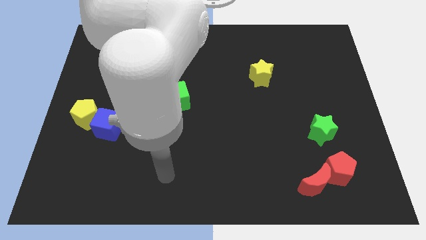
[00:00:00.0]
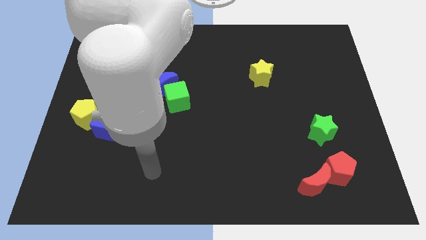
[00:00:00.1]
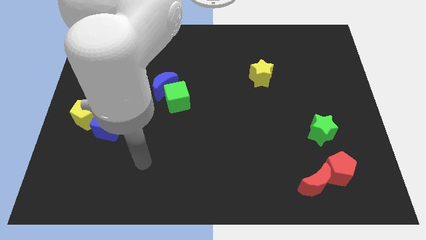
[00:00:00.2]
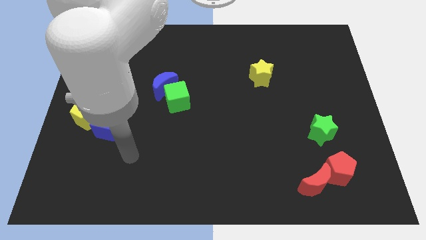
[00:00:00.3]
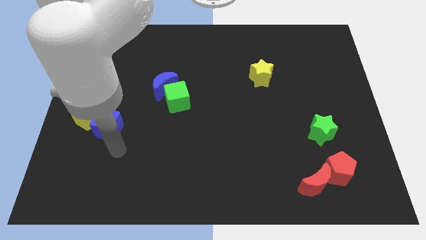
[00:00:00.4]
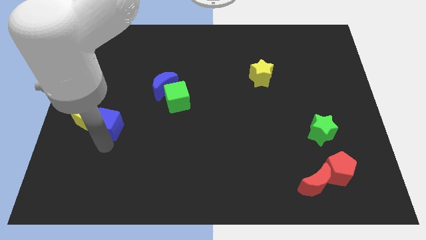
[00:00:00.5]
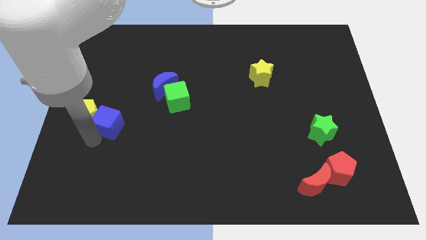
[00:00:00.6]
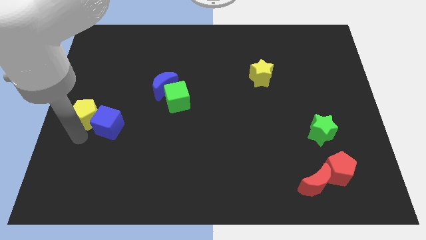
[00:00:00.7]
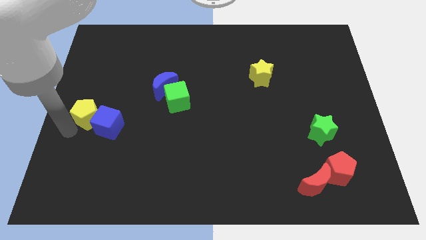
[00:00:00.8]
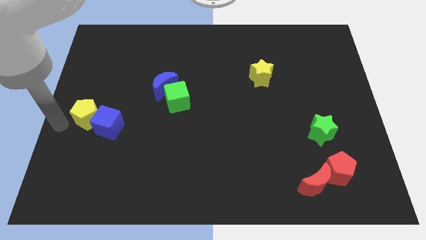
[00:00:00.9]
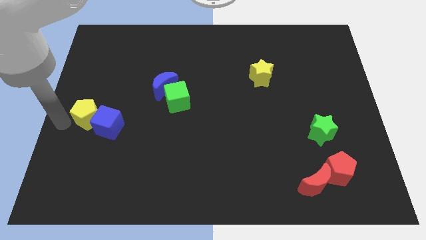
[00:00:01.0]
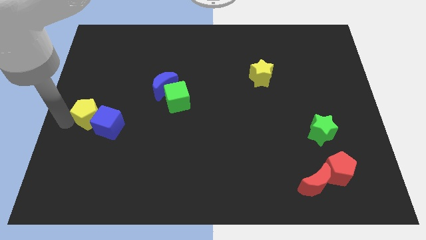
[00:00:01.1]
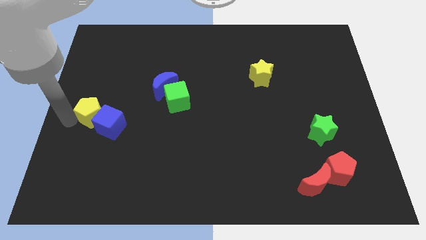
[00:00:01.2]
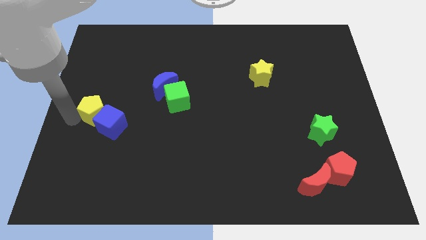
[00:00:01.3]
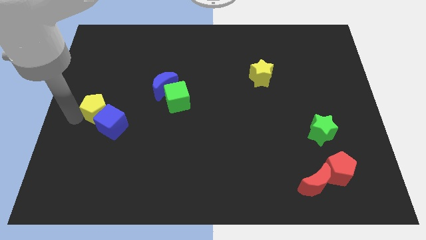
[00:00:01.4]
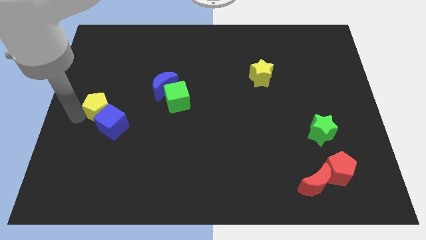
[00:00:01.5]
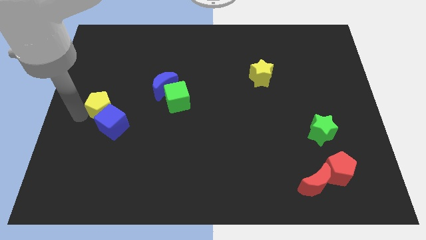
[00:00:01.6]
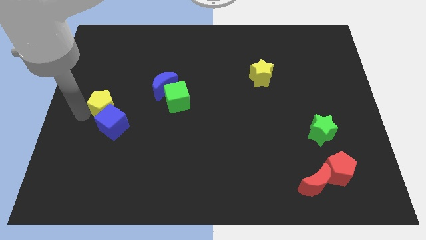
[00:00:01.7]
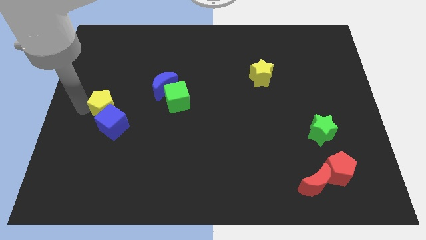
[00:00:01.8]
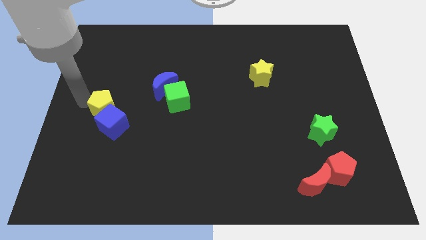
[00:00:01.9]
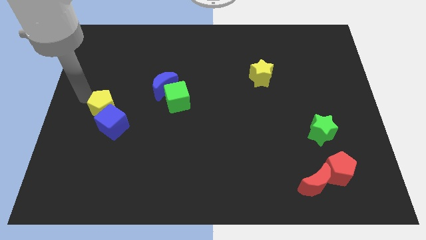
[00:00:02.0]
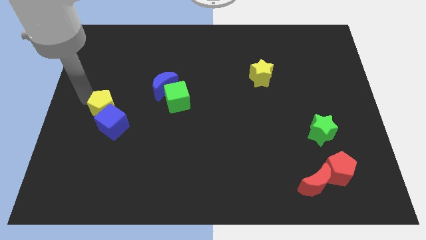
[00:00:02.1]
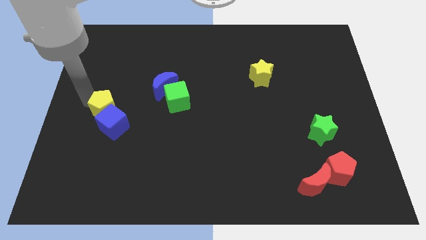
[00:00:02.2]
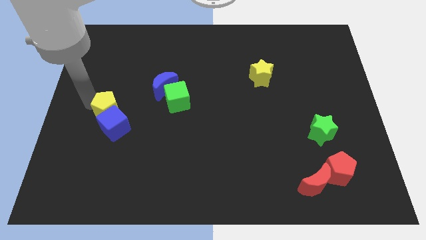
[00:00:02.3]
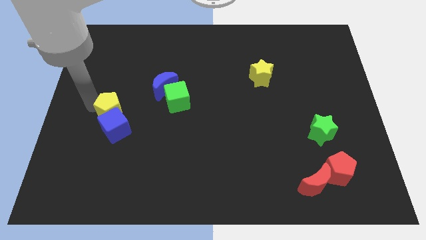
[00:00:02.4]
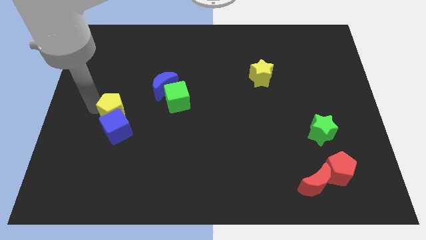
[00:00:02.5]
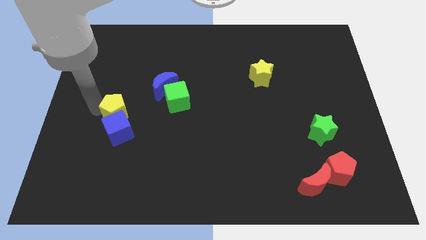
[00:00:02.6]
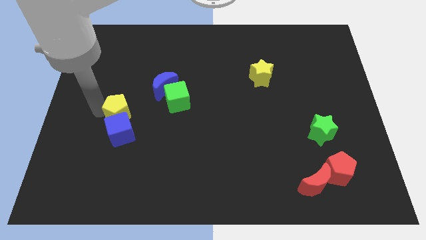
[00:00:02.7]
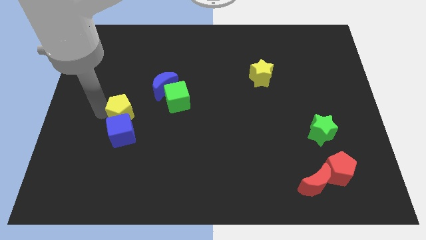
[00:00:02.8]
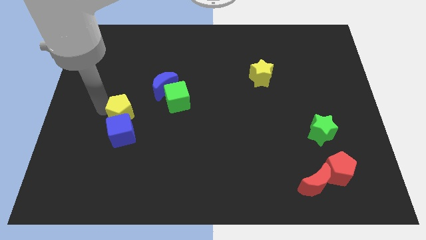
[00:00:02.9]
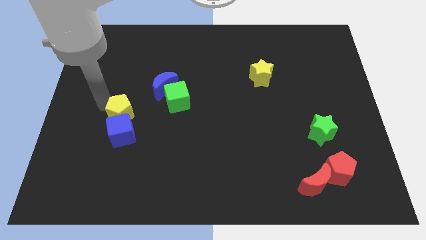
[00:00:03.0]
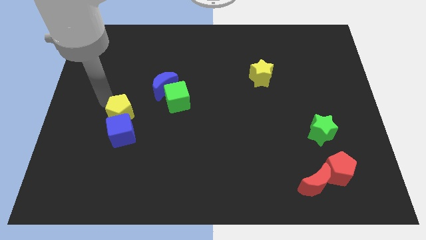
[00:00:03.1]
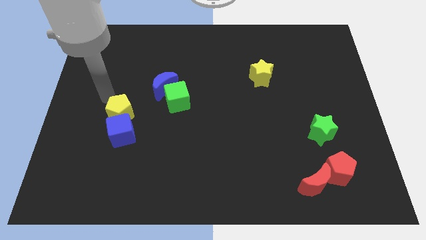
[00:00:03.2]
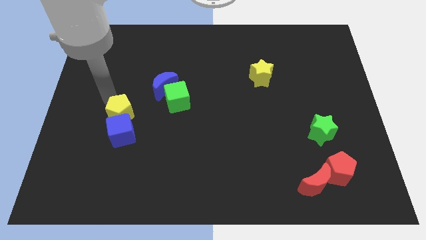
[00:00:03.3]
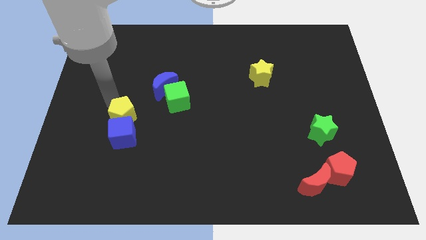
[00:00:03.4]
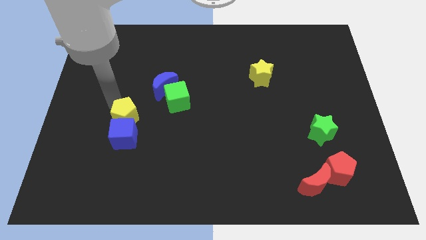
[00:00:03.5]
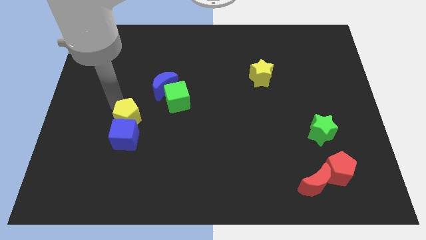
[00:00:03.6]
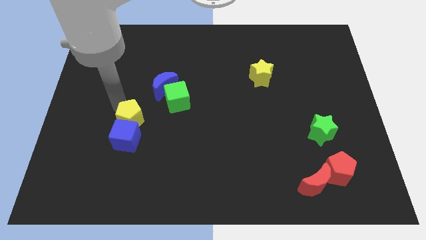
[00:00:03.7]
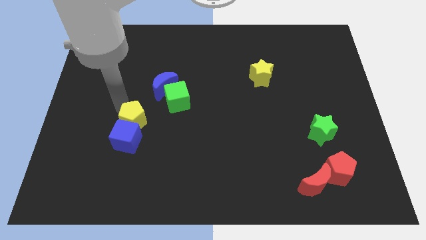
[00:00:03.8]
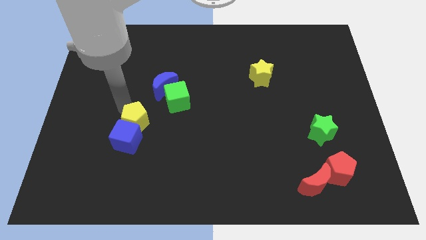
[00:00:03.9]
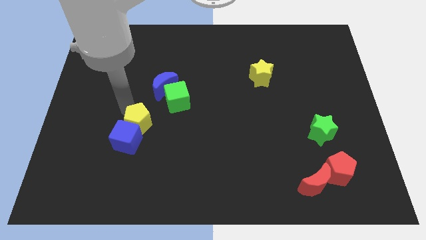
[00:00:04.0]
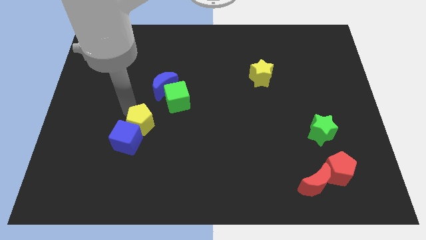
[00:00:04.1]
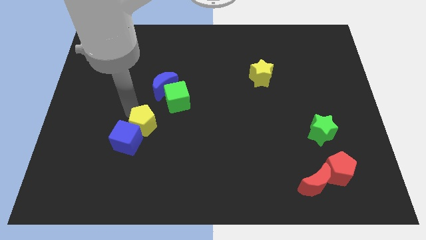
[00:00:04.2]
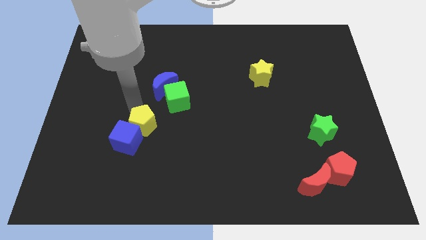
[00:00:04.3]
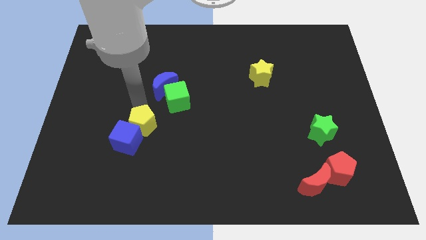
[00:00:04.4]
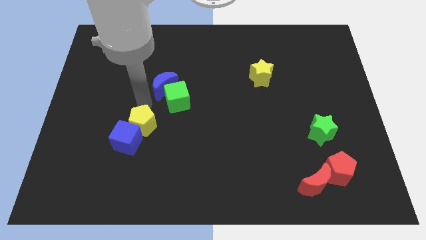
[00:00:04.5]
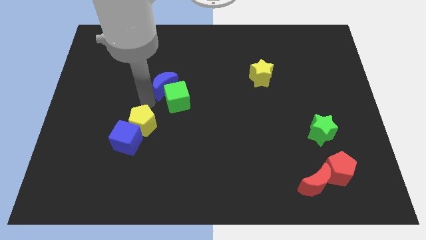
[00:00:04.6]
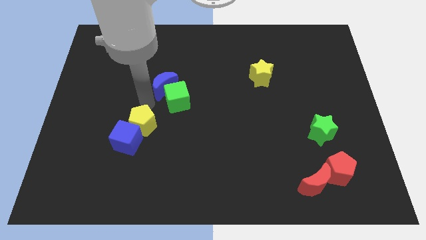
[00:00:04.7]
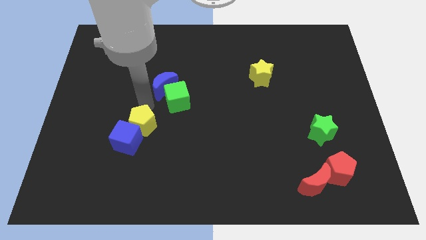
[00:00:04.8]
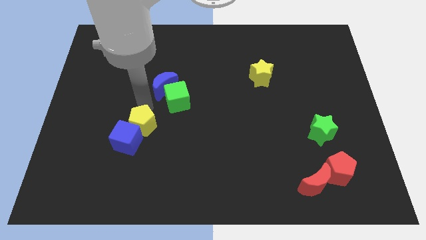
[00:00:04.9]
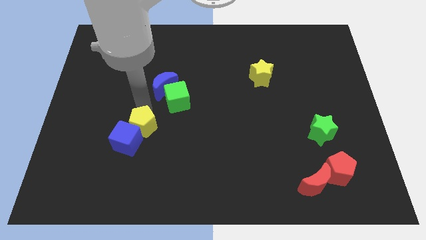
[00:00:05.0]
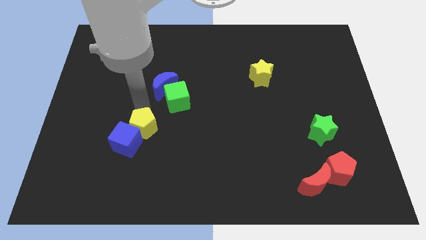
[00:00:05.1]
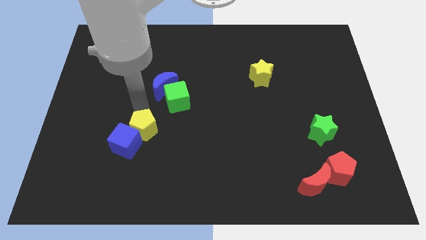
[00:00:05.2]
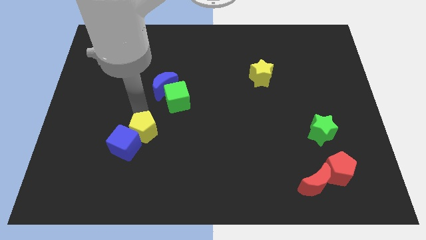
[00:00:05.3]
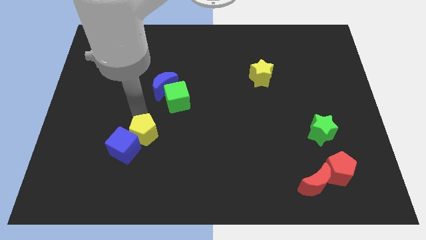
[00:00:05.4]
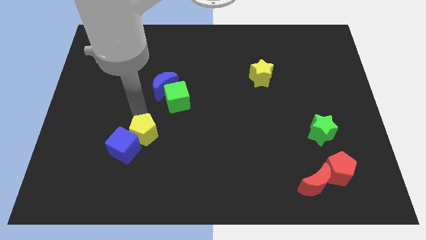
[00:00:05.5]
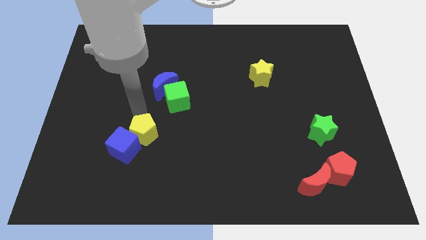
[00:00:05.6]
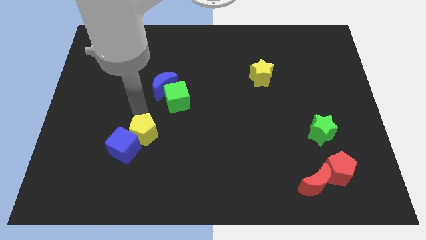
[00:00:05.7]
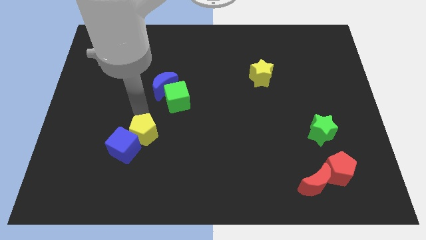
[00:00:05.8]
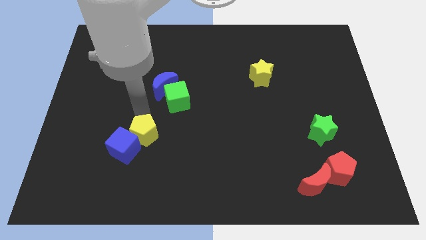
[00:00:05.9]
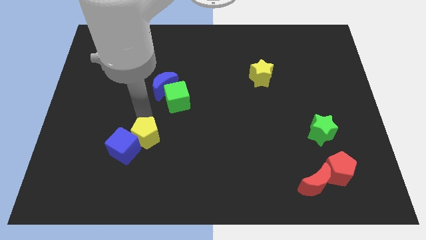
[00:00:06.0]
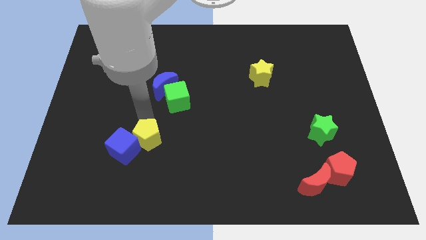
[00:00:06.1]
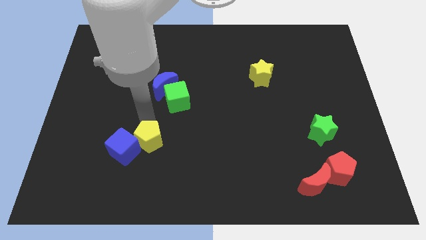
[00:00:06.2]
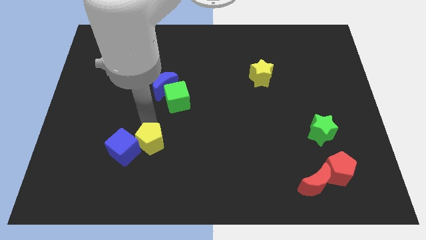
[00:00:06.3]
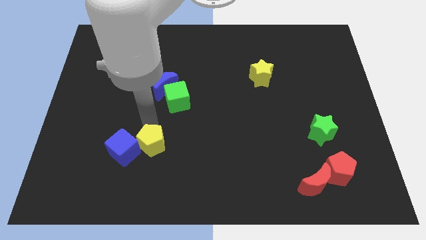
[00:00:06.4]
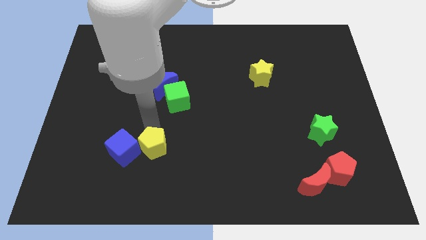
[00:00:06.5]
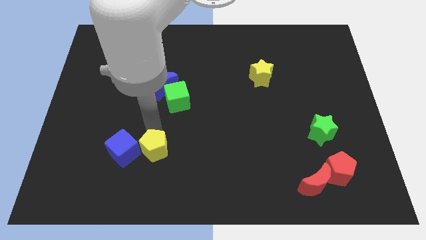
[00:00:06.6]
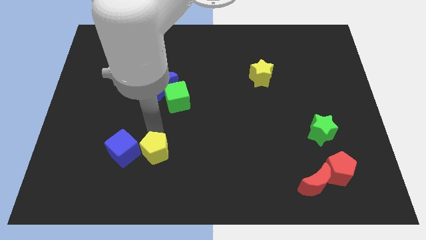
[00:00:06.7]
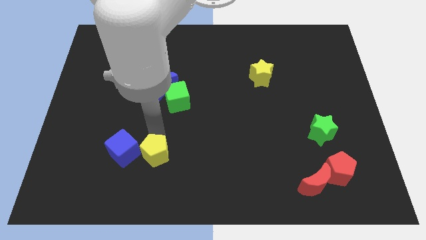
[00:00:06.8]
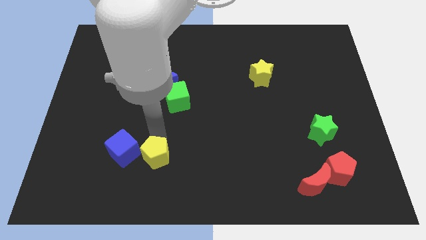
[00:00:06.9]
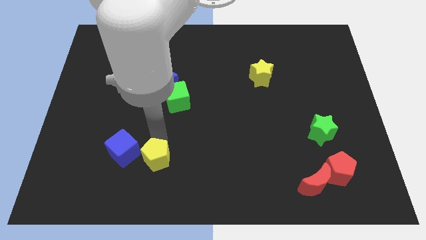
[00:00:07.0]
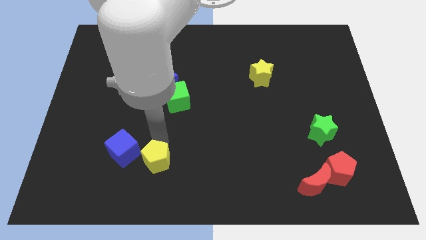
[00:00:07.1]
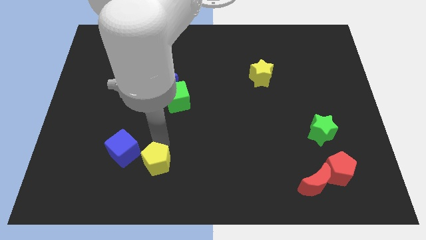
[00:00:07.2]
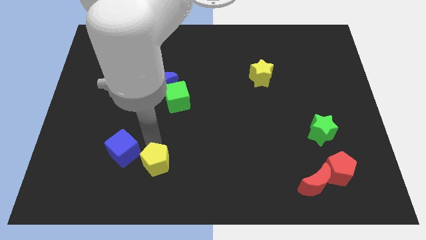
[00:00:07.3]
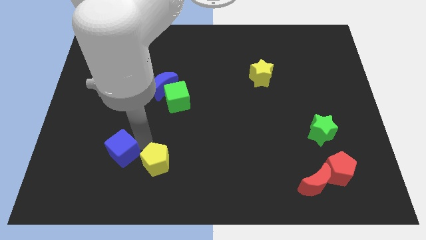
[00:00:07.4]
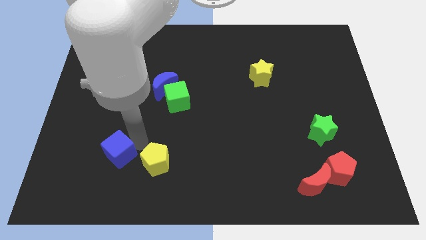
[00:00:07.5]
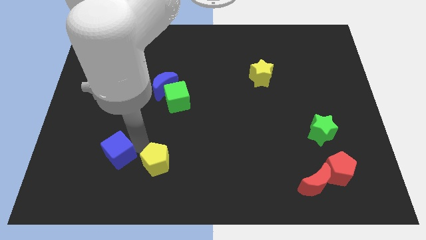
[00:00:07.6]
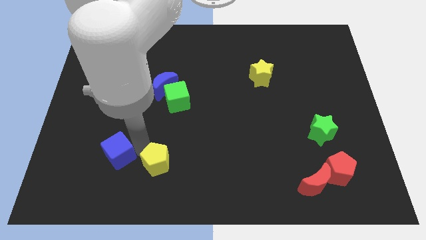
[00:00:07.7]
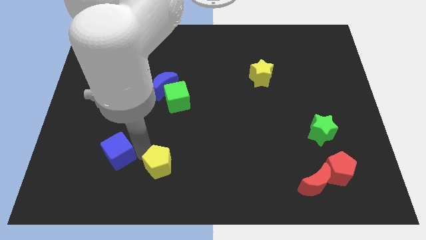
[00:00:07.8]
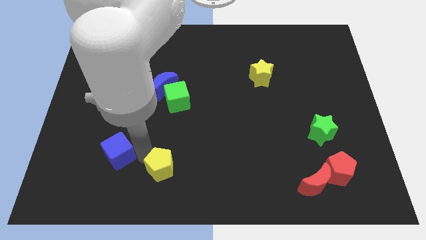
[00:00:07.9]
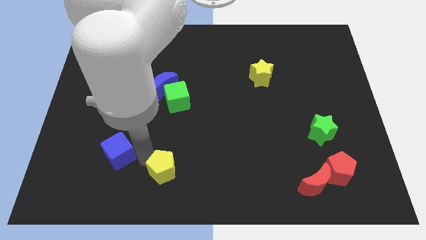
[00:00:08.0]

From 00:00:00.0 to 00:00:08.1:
put the yellow pentagon to the bottom side
